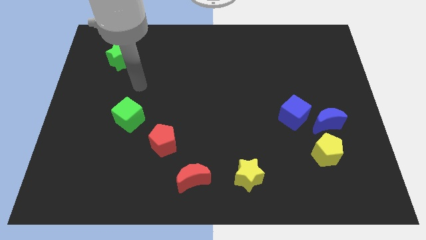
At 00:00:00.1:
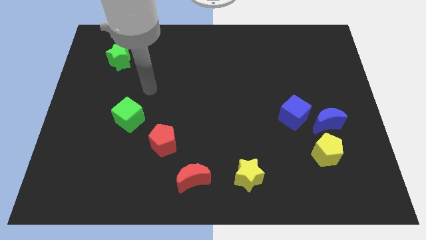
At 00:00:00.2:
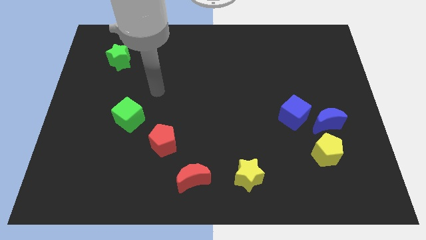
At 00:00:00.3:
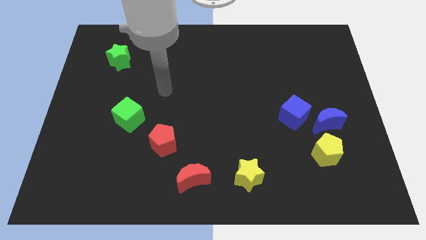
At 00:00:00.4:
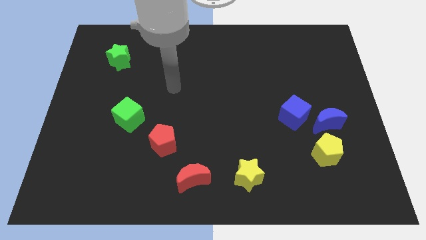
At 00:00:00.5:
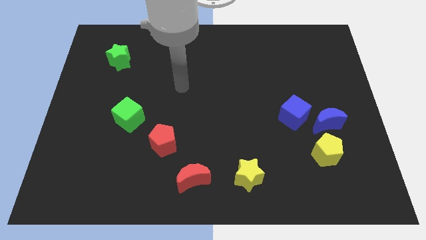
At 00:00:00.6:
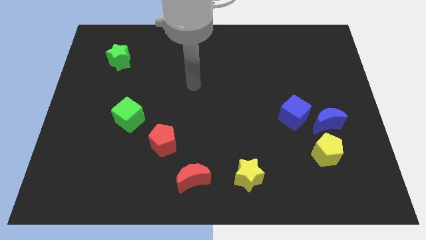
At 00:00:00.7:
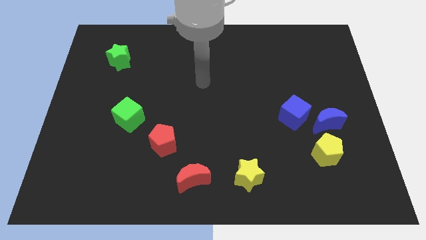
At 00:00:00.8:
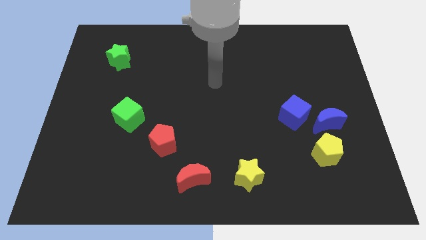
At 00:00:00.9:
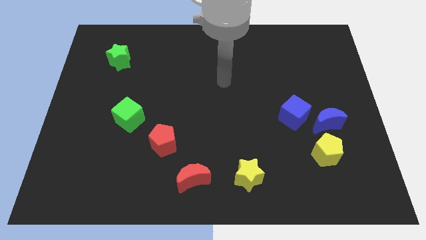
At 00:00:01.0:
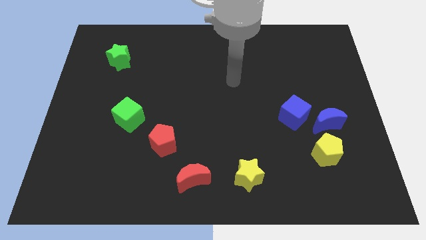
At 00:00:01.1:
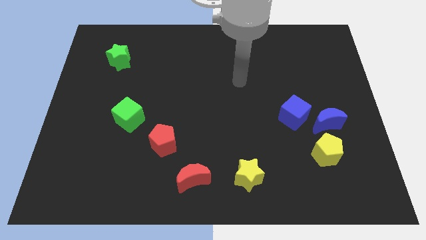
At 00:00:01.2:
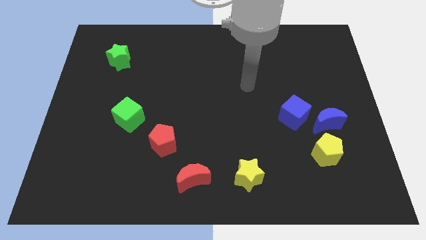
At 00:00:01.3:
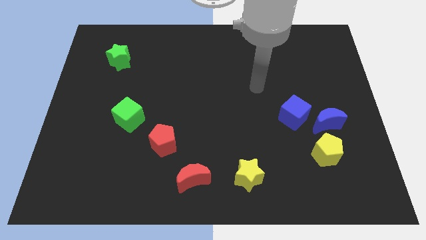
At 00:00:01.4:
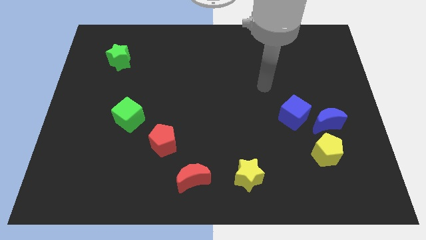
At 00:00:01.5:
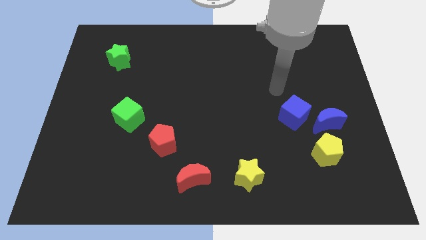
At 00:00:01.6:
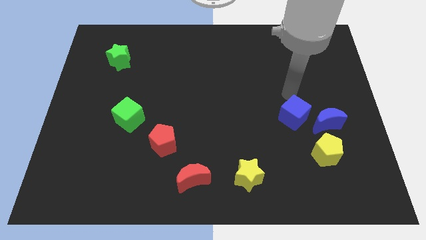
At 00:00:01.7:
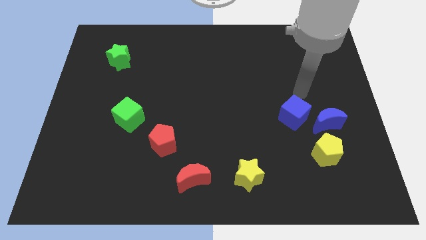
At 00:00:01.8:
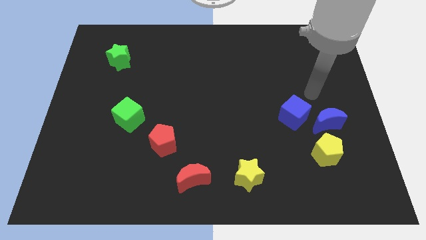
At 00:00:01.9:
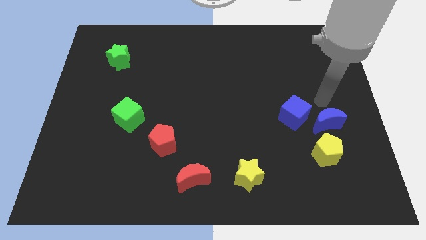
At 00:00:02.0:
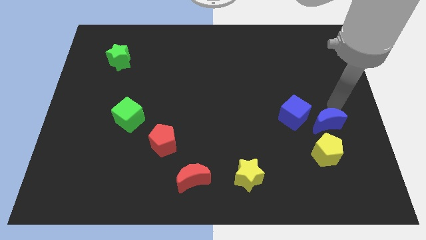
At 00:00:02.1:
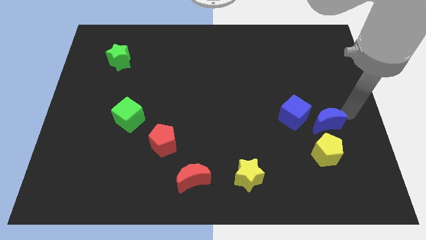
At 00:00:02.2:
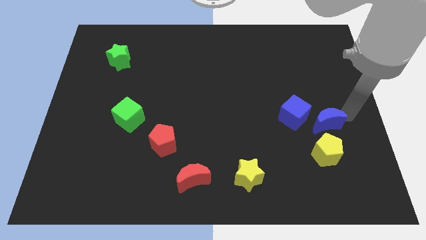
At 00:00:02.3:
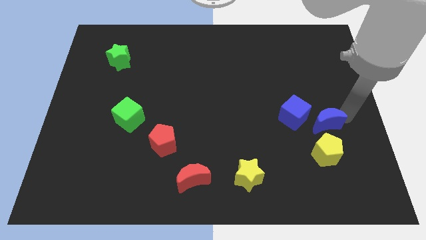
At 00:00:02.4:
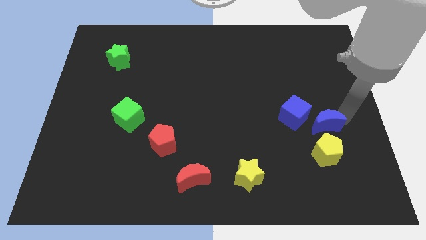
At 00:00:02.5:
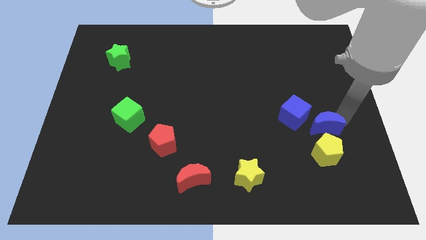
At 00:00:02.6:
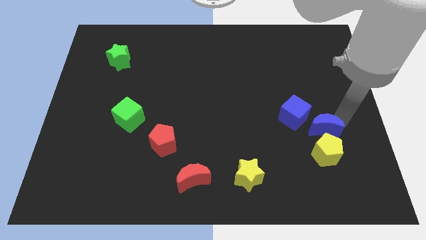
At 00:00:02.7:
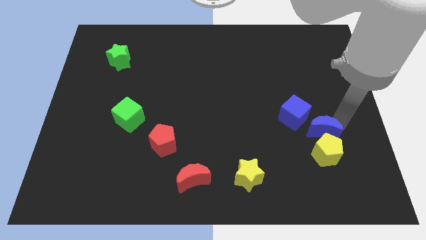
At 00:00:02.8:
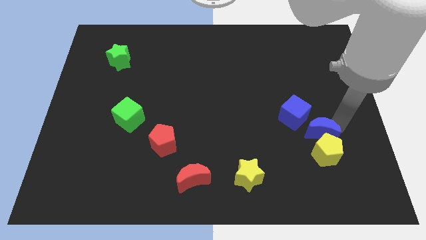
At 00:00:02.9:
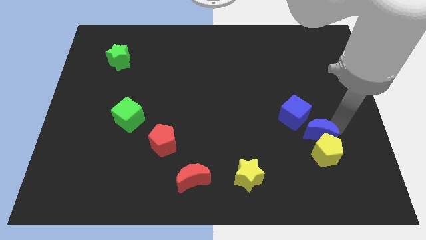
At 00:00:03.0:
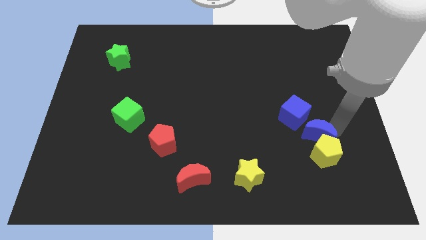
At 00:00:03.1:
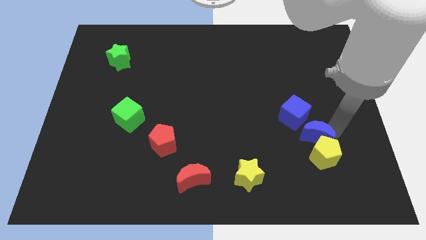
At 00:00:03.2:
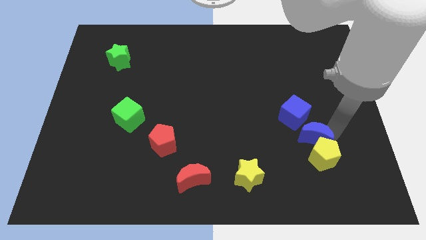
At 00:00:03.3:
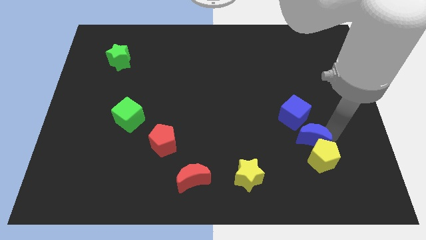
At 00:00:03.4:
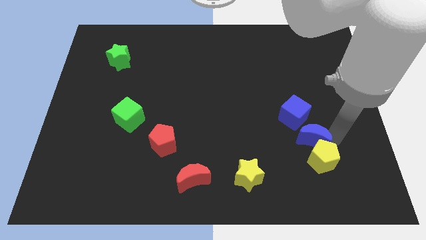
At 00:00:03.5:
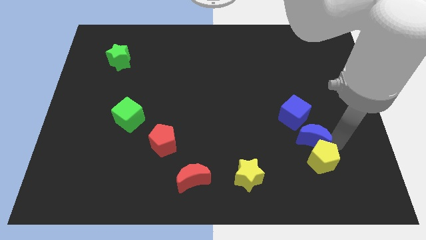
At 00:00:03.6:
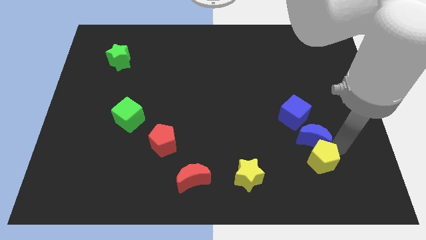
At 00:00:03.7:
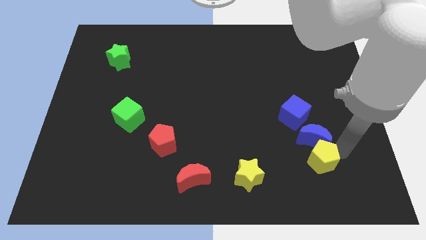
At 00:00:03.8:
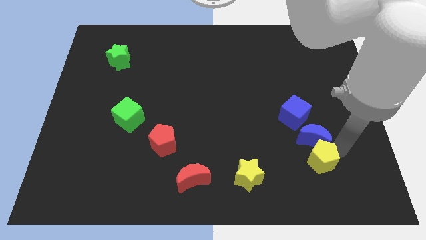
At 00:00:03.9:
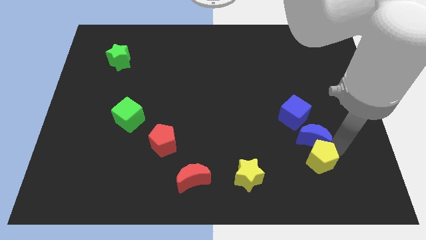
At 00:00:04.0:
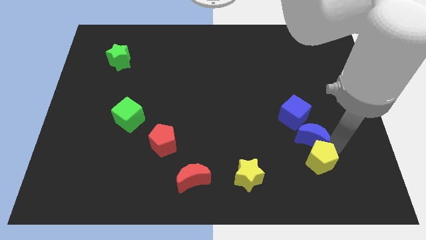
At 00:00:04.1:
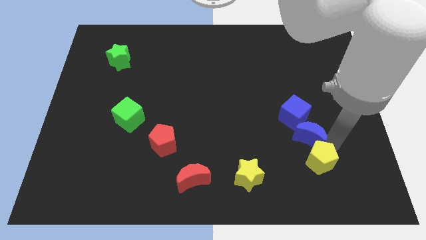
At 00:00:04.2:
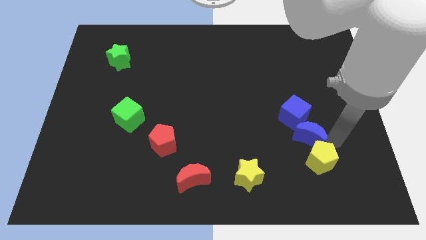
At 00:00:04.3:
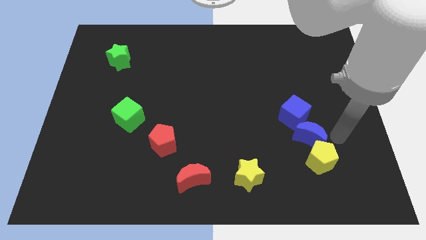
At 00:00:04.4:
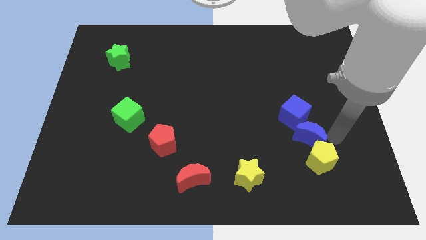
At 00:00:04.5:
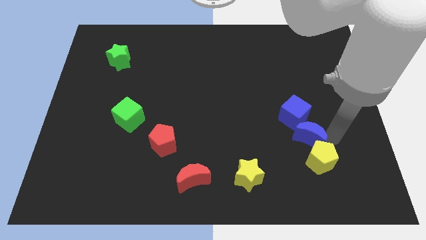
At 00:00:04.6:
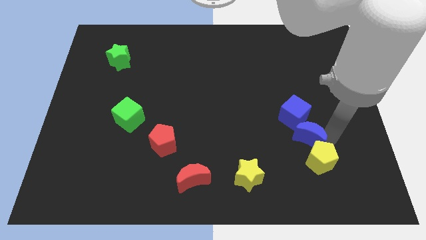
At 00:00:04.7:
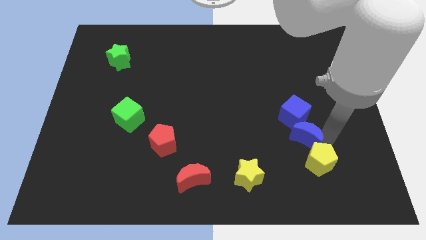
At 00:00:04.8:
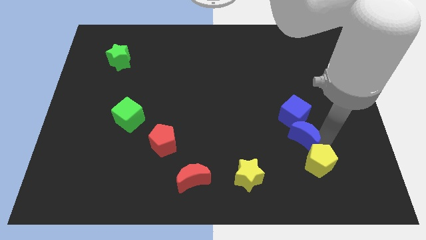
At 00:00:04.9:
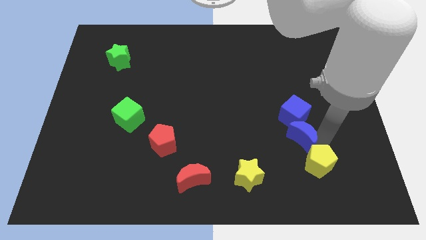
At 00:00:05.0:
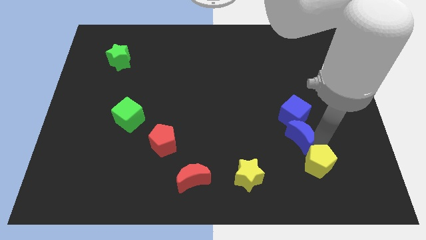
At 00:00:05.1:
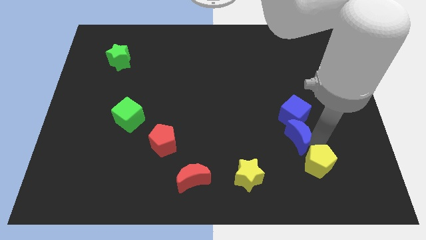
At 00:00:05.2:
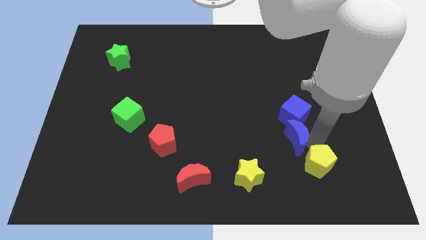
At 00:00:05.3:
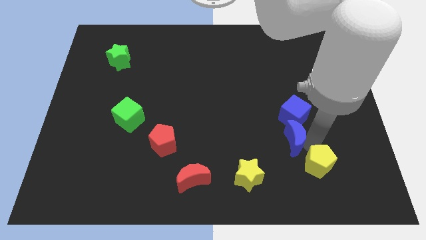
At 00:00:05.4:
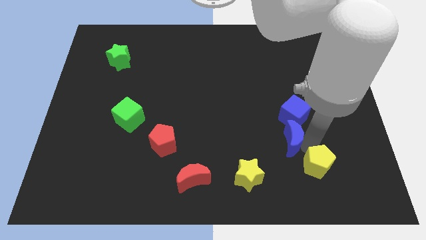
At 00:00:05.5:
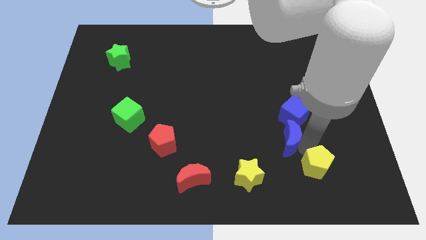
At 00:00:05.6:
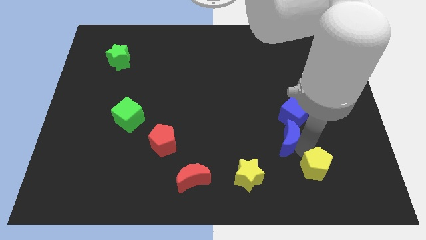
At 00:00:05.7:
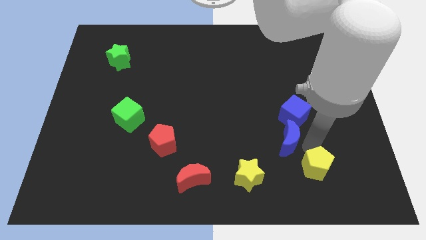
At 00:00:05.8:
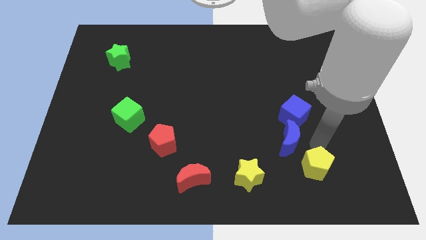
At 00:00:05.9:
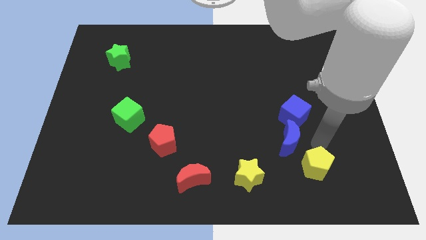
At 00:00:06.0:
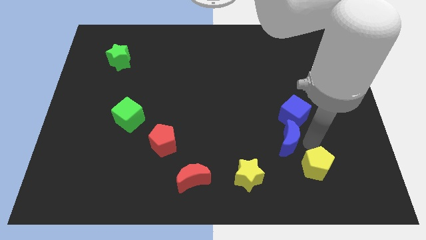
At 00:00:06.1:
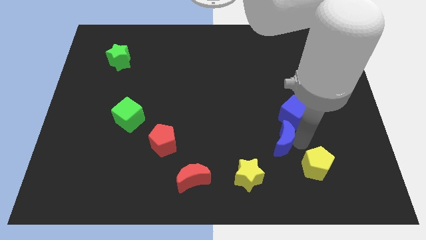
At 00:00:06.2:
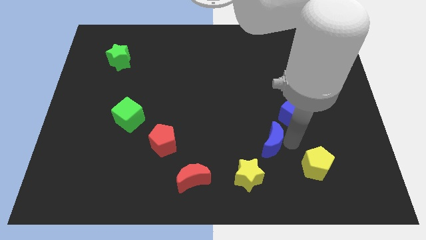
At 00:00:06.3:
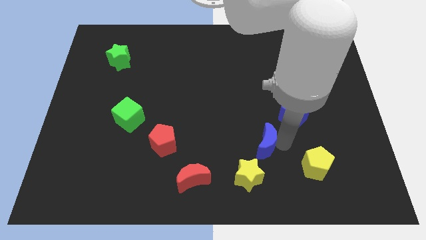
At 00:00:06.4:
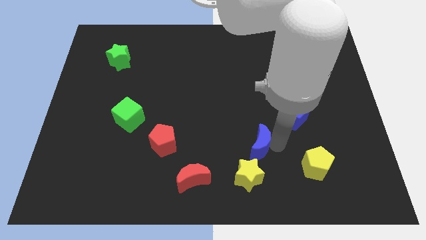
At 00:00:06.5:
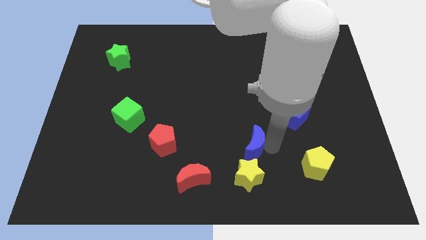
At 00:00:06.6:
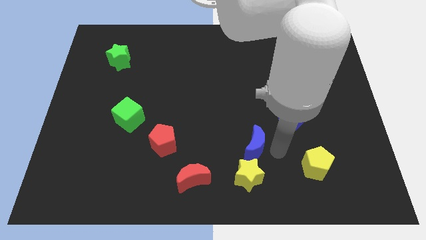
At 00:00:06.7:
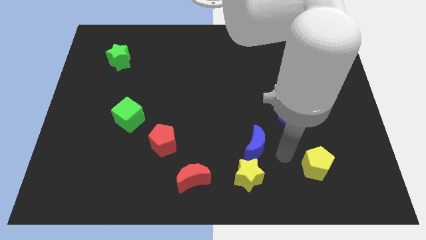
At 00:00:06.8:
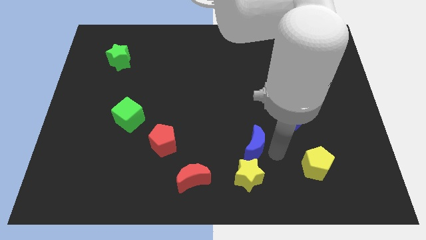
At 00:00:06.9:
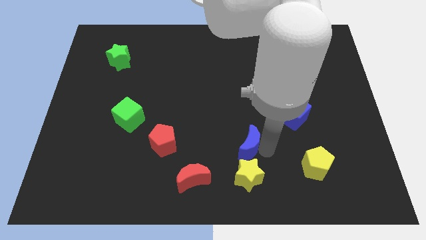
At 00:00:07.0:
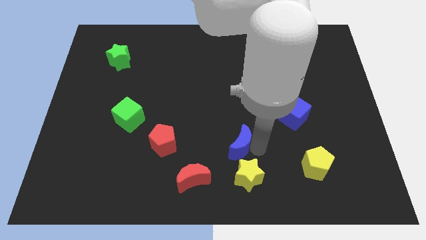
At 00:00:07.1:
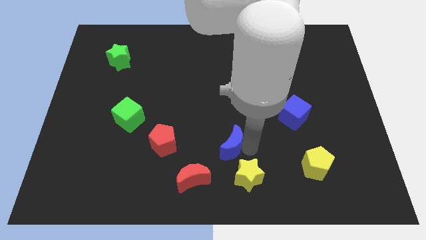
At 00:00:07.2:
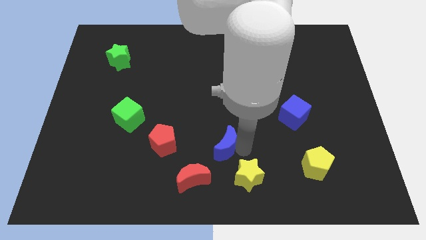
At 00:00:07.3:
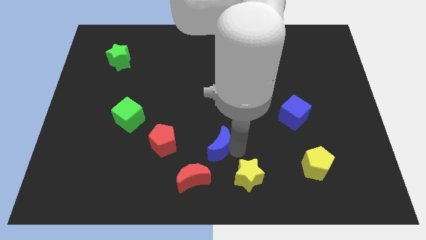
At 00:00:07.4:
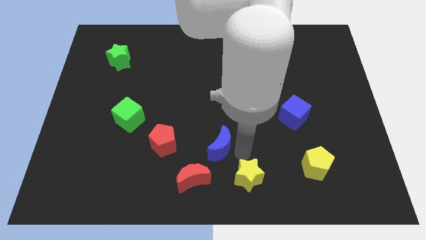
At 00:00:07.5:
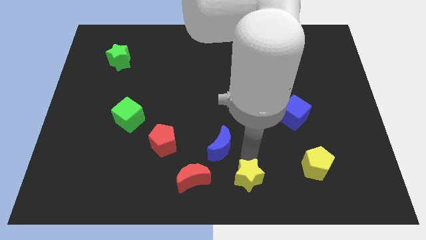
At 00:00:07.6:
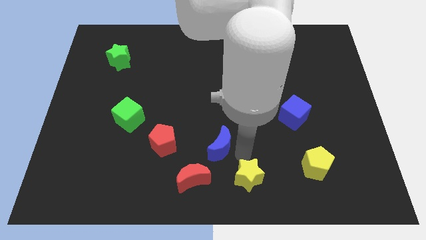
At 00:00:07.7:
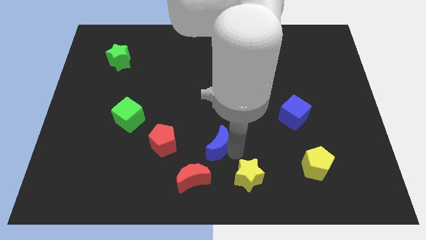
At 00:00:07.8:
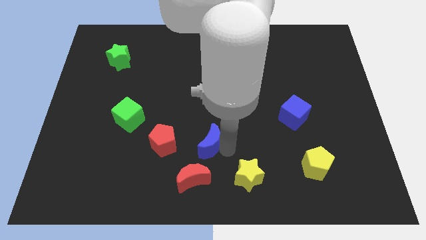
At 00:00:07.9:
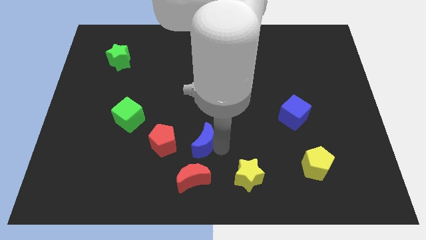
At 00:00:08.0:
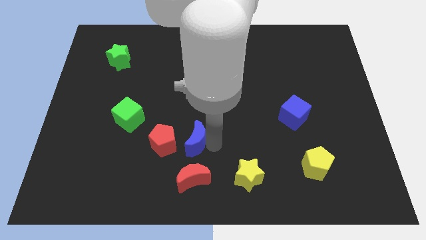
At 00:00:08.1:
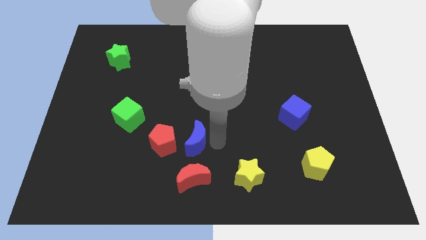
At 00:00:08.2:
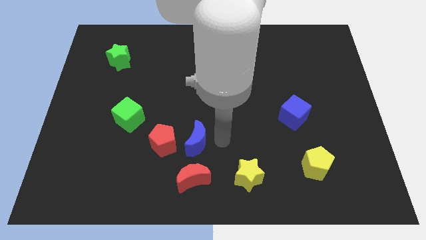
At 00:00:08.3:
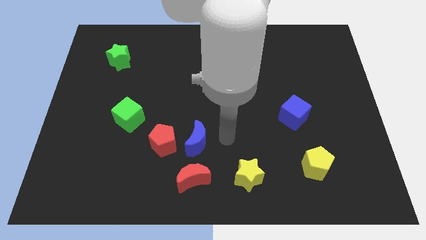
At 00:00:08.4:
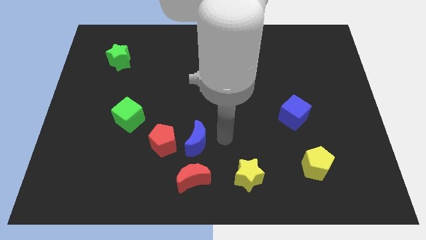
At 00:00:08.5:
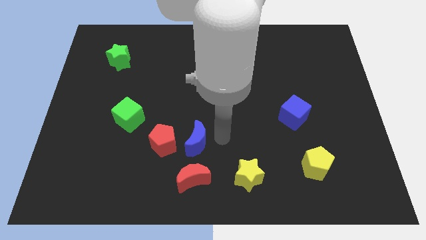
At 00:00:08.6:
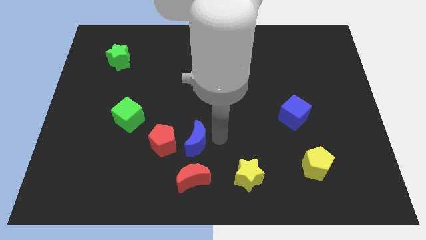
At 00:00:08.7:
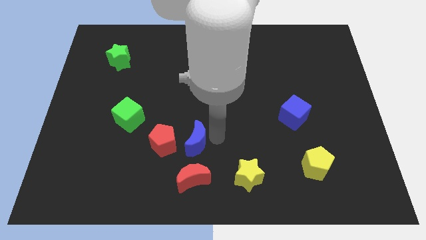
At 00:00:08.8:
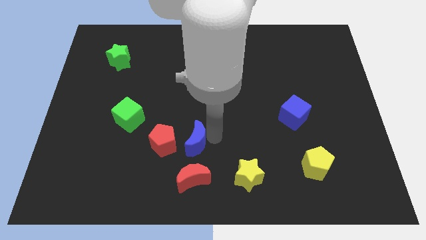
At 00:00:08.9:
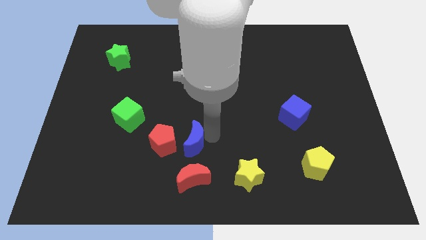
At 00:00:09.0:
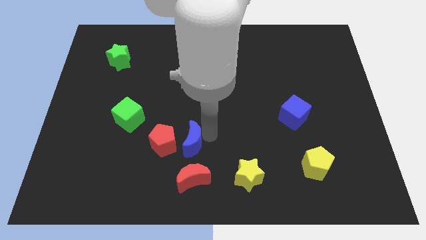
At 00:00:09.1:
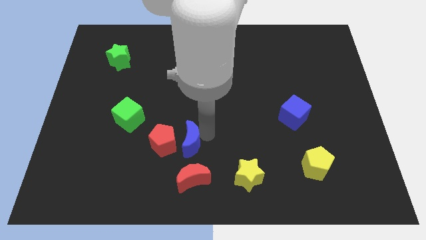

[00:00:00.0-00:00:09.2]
move the blue moon close to the red pentagon
